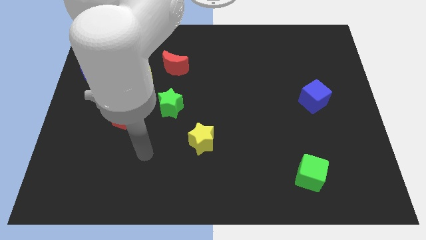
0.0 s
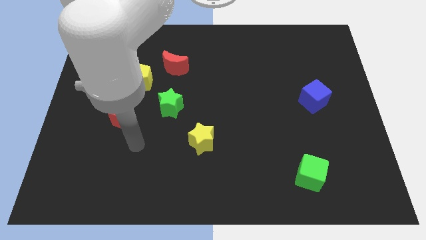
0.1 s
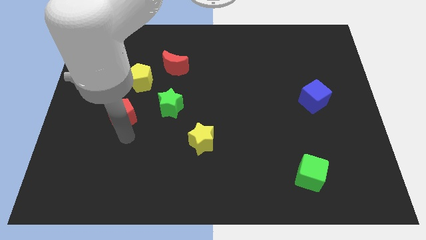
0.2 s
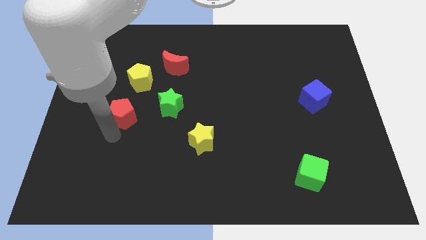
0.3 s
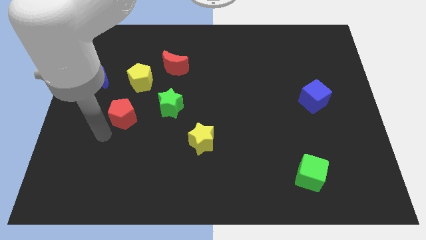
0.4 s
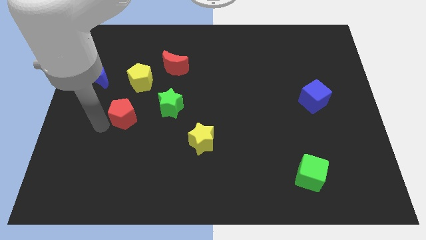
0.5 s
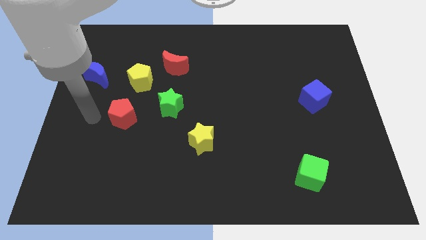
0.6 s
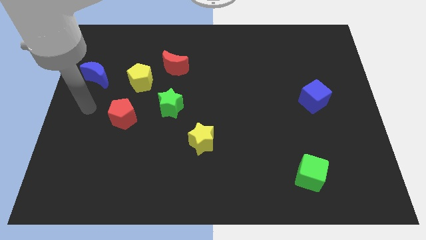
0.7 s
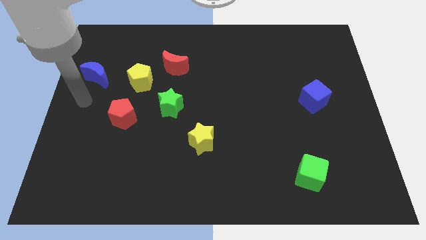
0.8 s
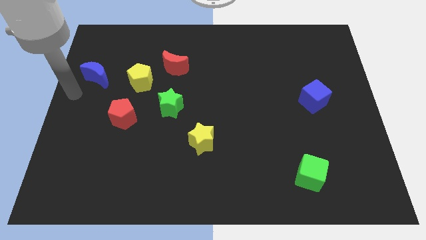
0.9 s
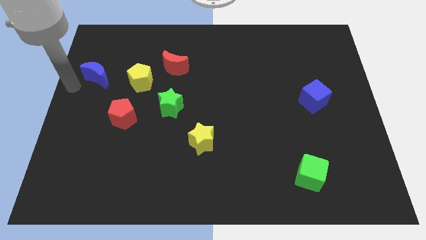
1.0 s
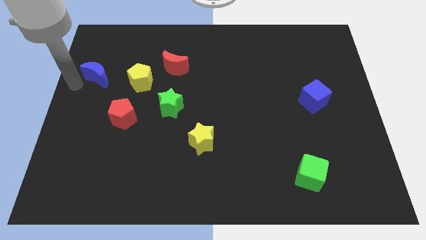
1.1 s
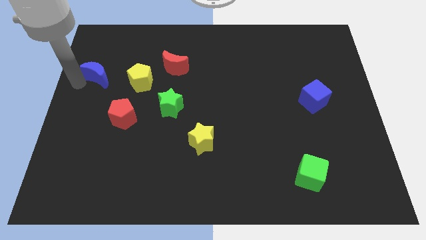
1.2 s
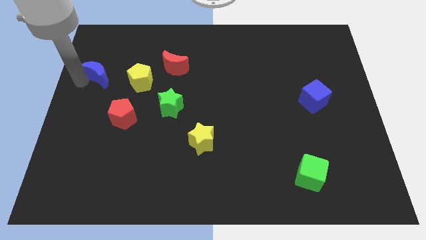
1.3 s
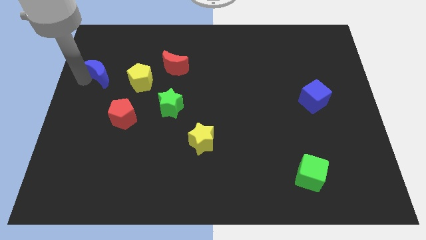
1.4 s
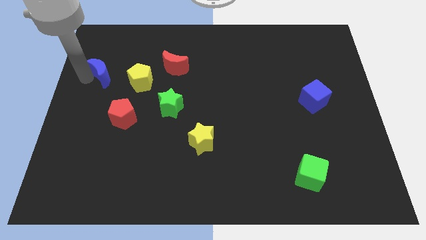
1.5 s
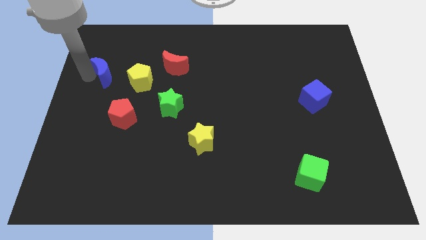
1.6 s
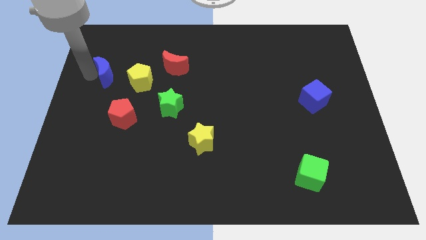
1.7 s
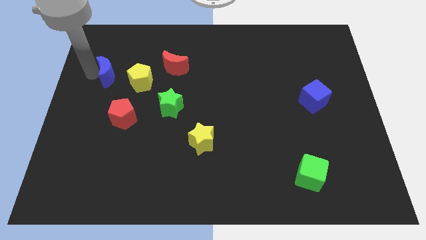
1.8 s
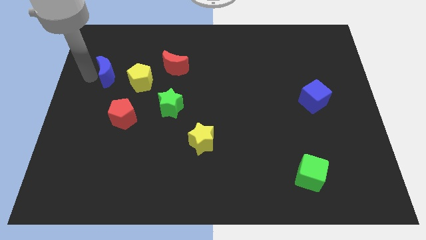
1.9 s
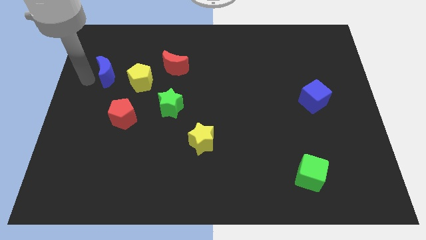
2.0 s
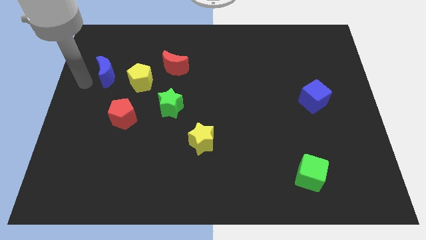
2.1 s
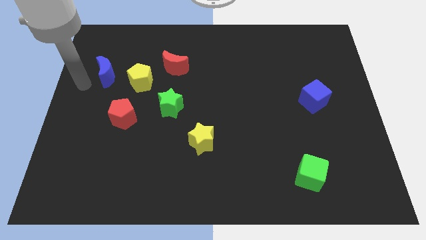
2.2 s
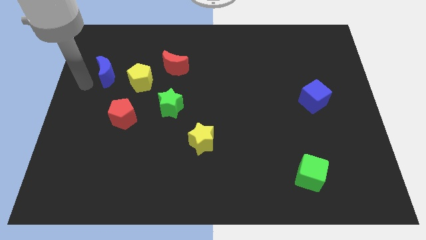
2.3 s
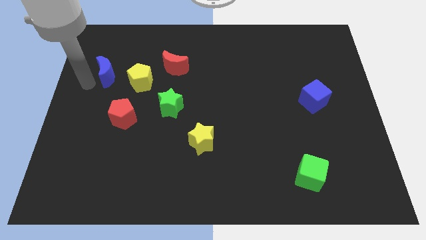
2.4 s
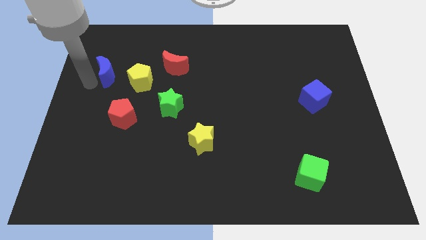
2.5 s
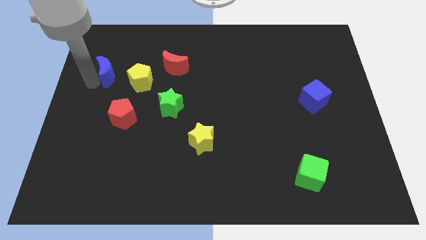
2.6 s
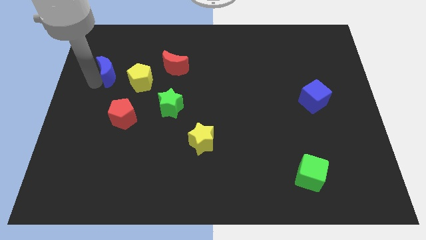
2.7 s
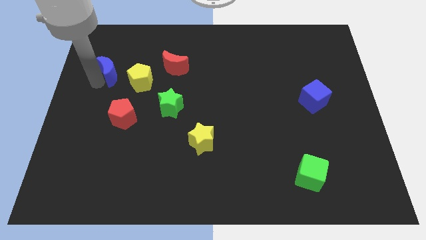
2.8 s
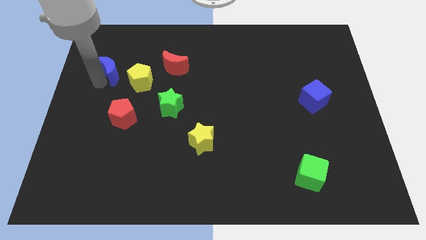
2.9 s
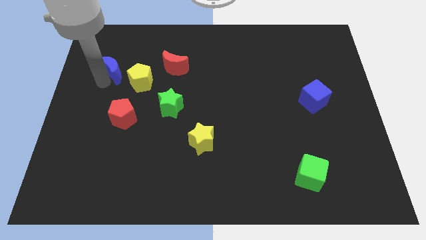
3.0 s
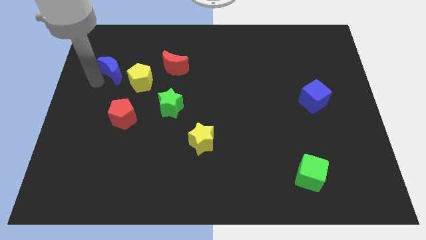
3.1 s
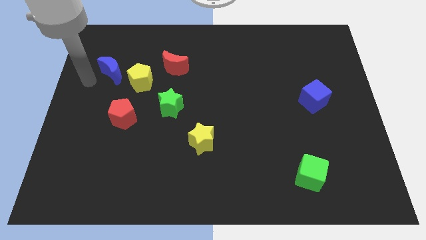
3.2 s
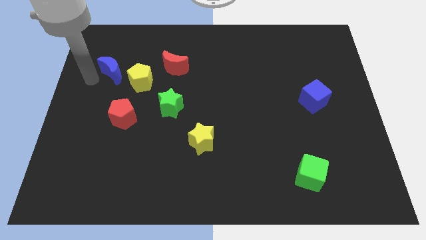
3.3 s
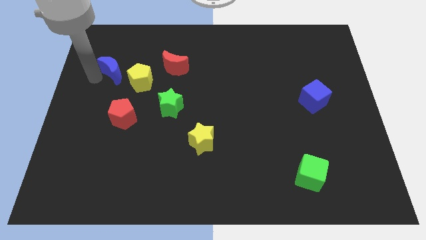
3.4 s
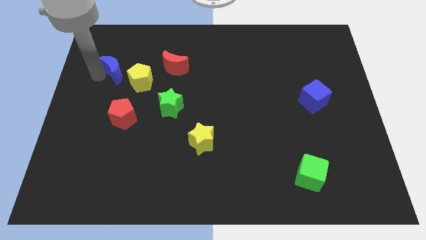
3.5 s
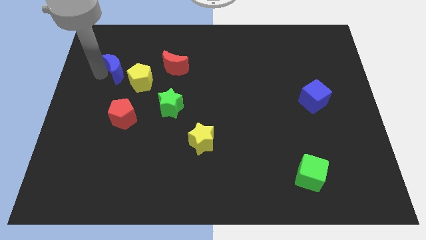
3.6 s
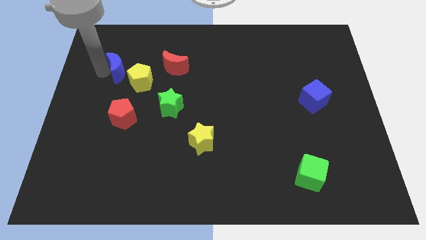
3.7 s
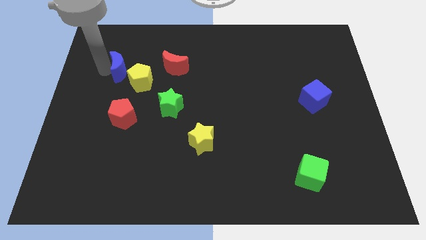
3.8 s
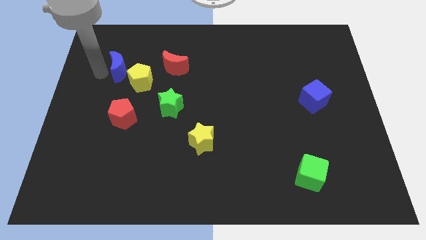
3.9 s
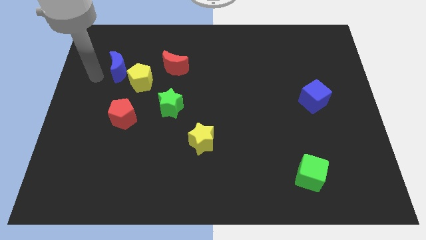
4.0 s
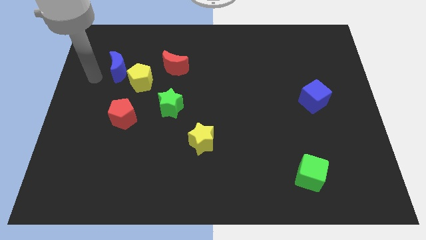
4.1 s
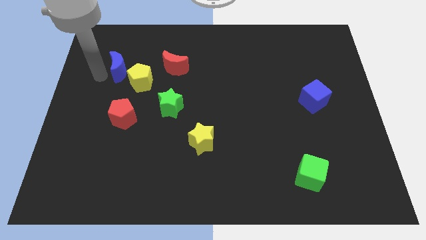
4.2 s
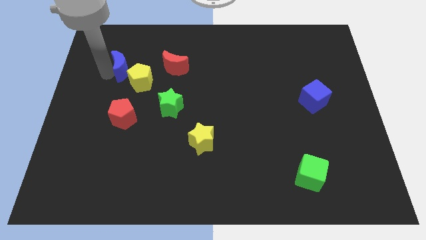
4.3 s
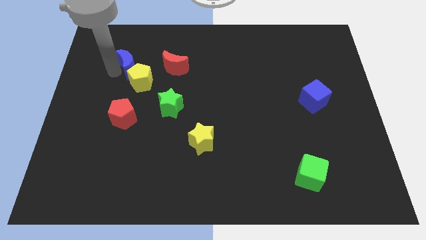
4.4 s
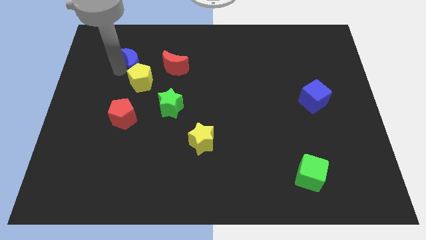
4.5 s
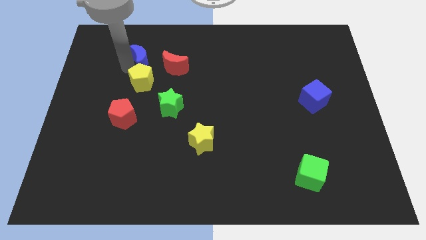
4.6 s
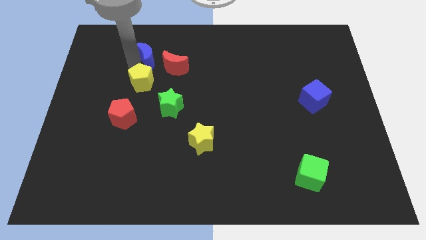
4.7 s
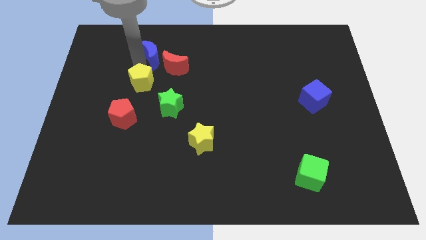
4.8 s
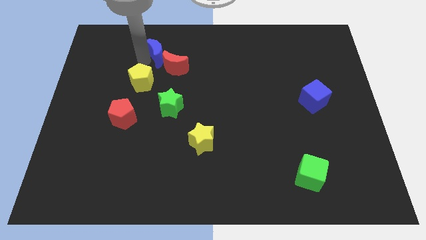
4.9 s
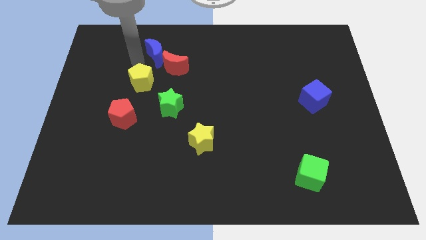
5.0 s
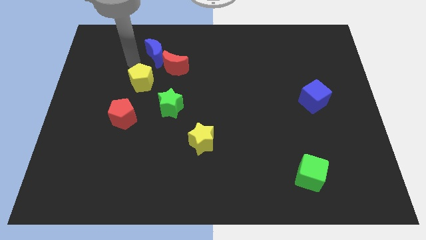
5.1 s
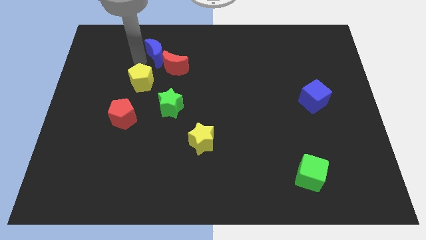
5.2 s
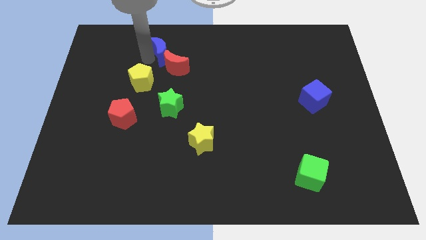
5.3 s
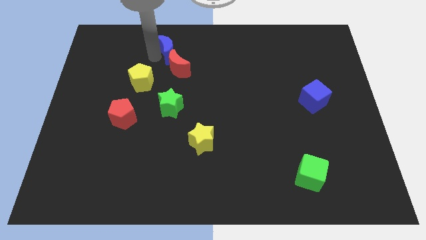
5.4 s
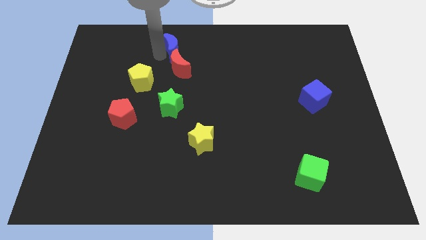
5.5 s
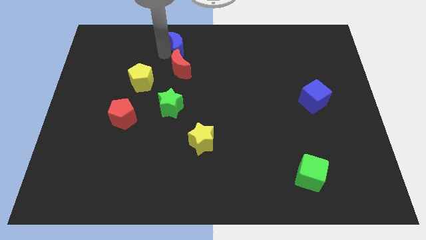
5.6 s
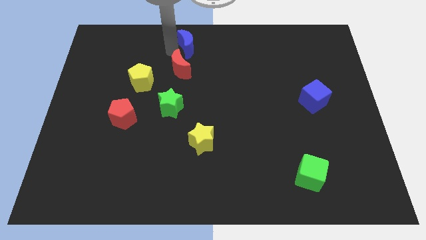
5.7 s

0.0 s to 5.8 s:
put the blue moon to the top

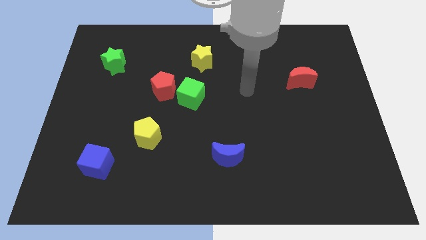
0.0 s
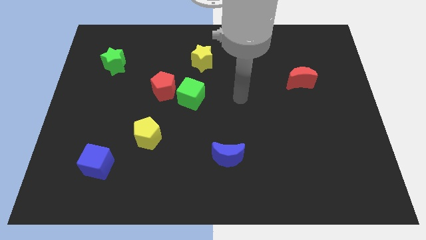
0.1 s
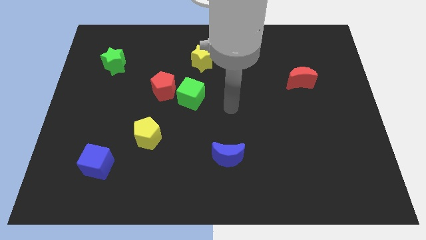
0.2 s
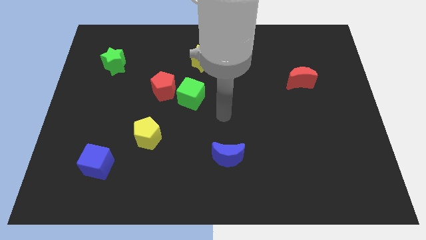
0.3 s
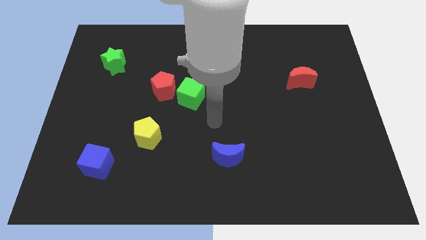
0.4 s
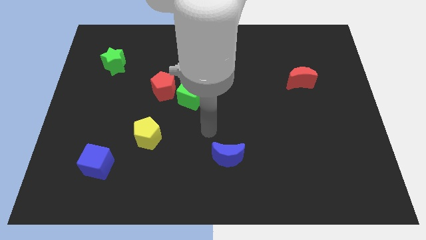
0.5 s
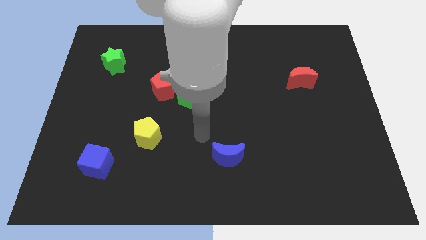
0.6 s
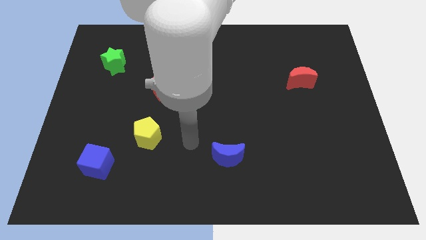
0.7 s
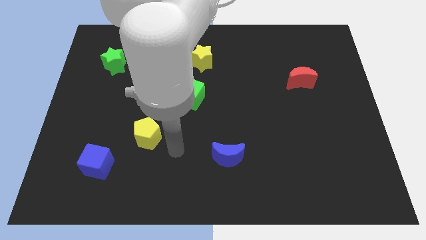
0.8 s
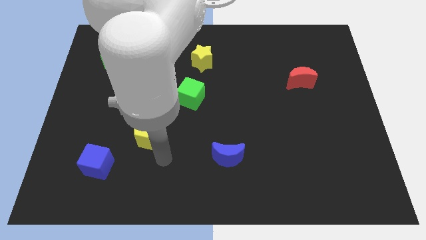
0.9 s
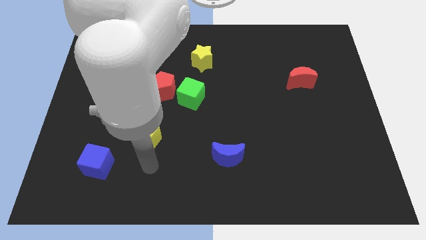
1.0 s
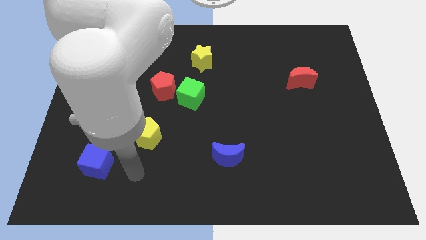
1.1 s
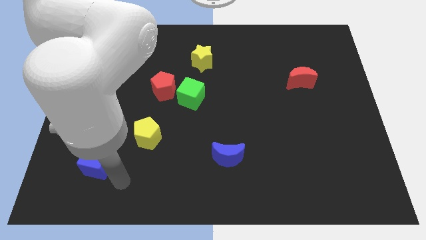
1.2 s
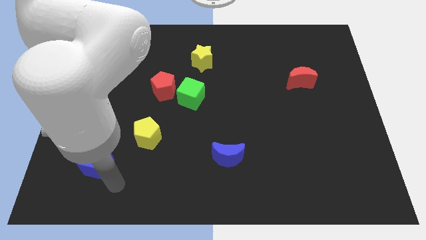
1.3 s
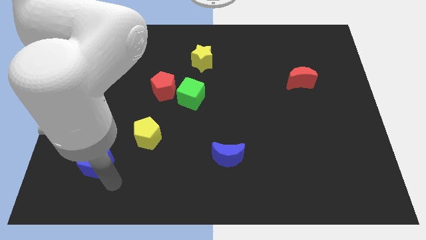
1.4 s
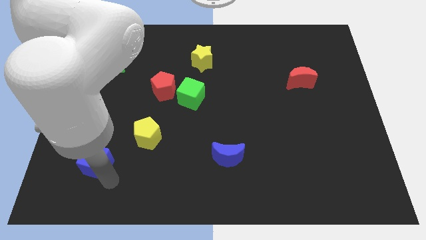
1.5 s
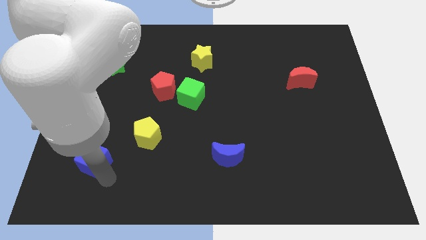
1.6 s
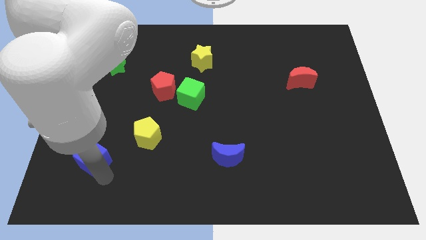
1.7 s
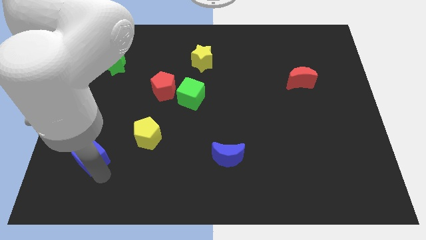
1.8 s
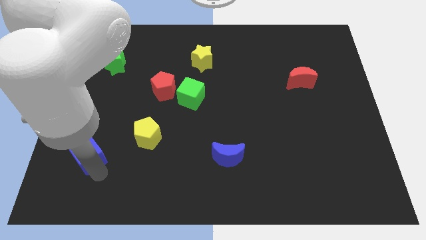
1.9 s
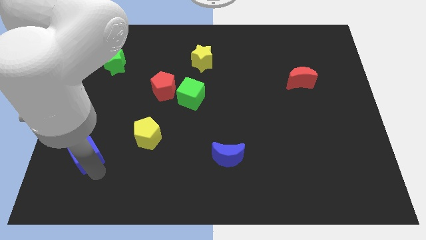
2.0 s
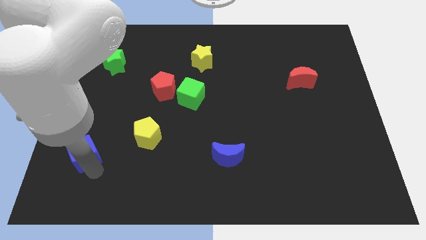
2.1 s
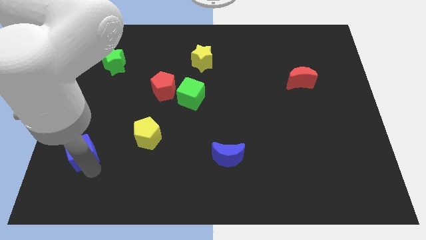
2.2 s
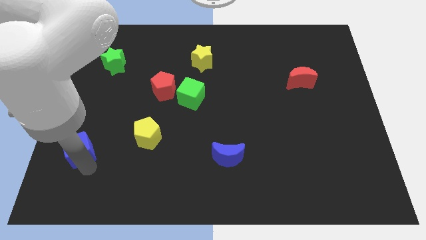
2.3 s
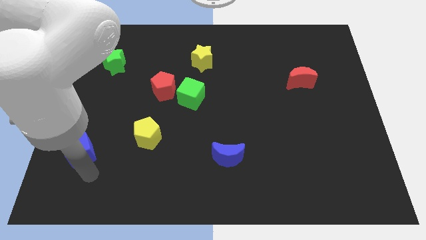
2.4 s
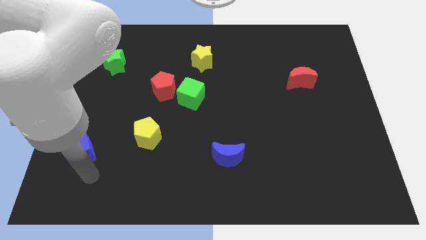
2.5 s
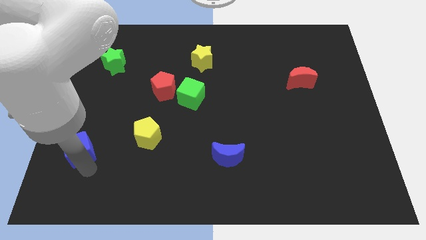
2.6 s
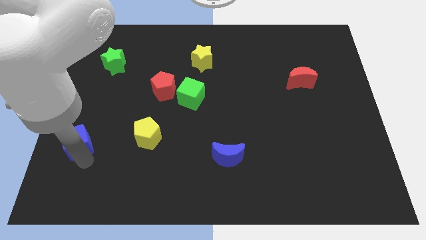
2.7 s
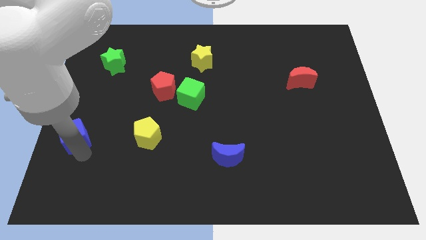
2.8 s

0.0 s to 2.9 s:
push the blue cube to the center left
